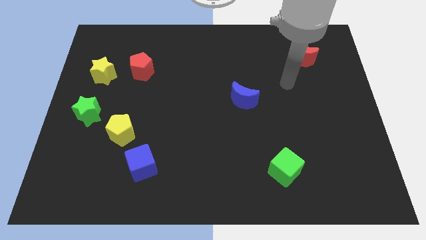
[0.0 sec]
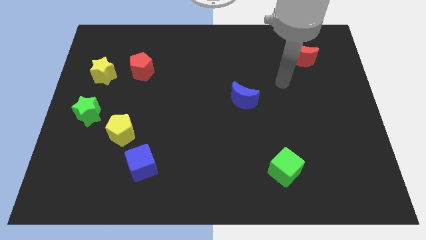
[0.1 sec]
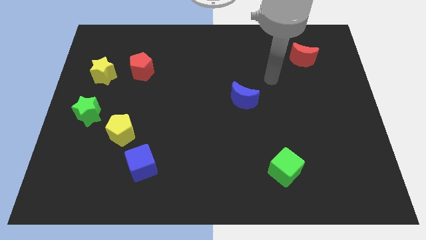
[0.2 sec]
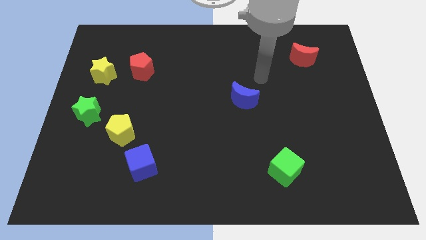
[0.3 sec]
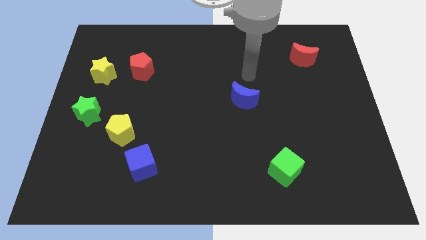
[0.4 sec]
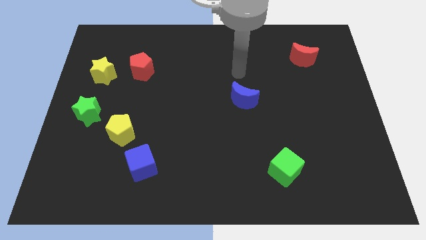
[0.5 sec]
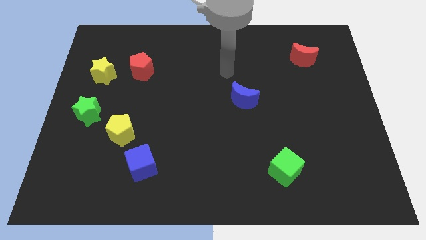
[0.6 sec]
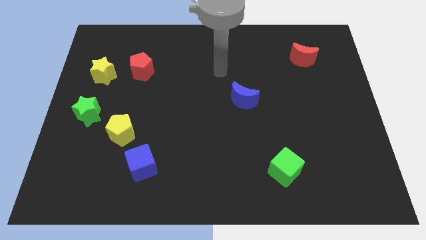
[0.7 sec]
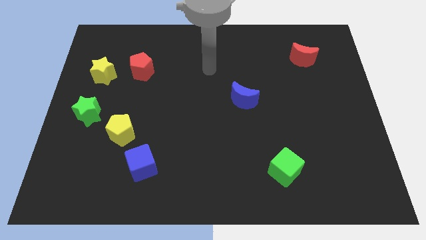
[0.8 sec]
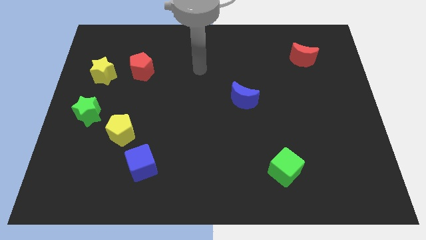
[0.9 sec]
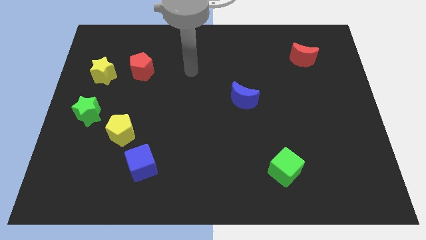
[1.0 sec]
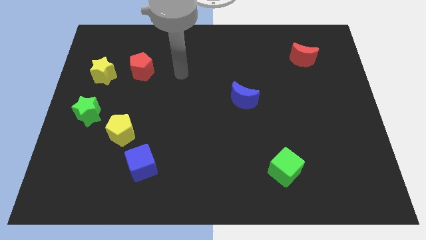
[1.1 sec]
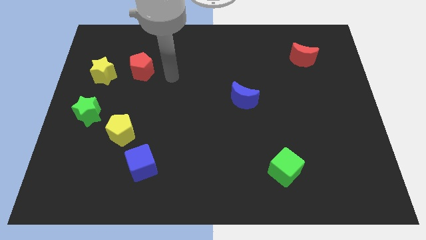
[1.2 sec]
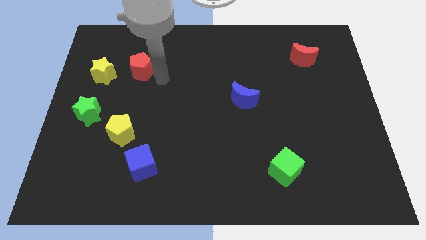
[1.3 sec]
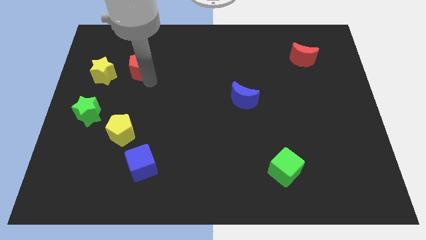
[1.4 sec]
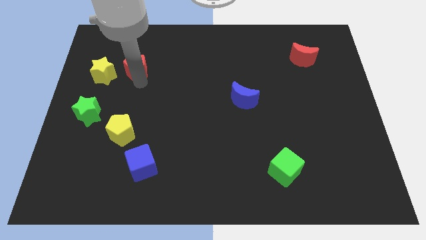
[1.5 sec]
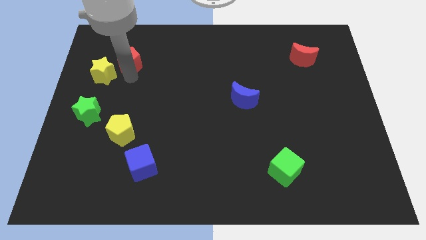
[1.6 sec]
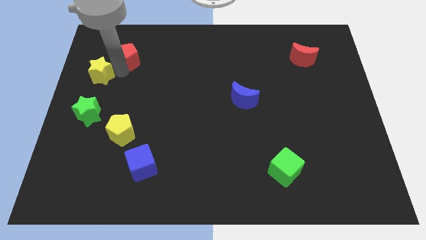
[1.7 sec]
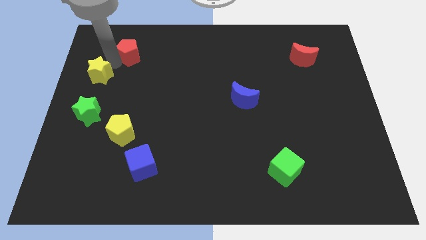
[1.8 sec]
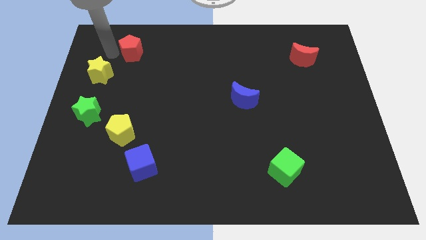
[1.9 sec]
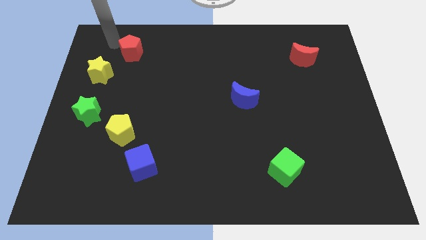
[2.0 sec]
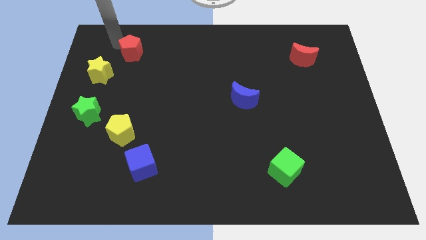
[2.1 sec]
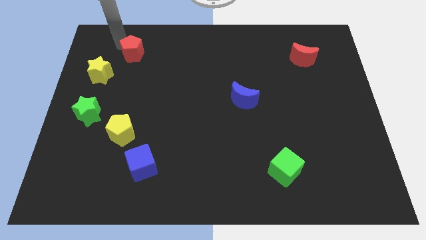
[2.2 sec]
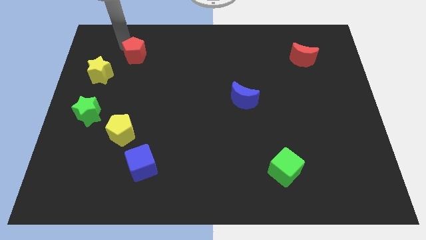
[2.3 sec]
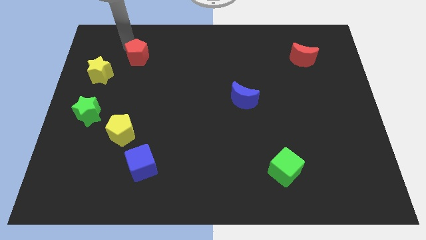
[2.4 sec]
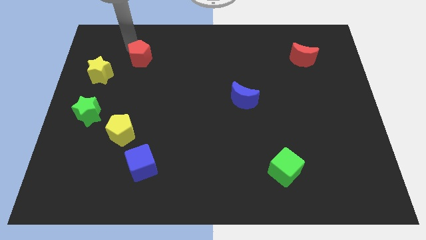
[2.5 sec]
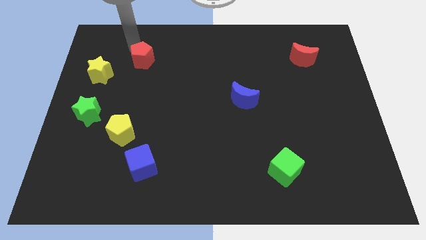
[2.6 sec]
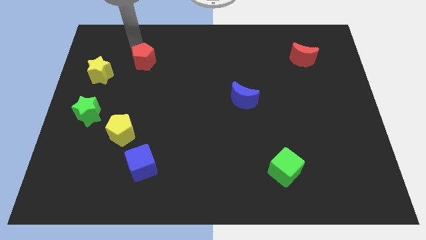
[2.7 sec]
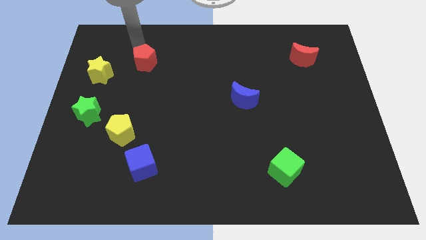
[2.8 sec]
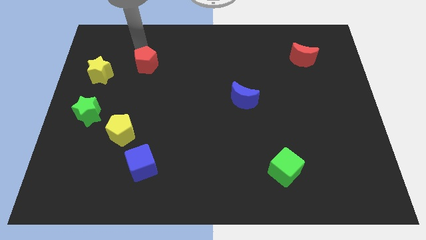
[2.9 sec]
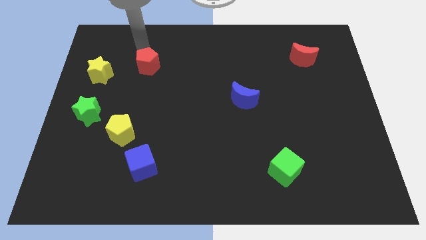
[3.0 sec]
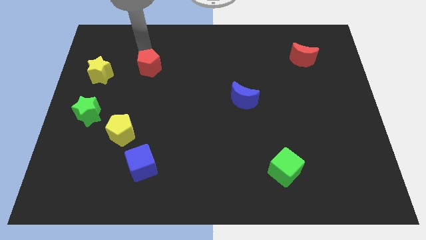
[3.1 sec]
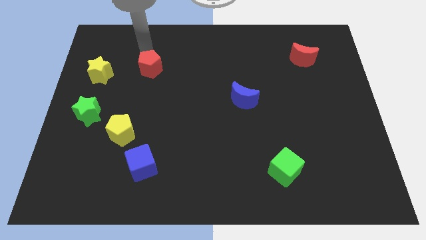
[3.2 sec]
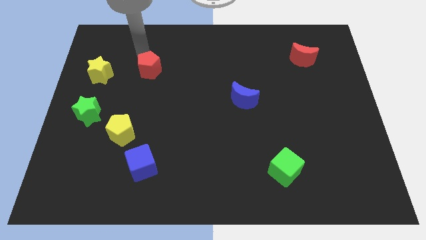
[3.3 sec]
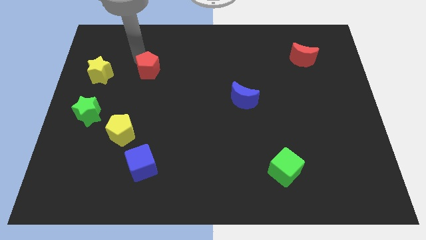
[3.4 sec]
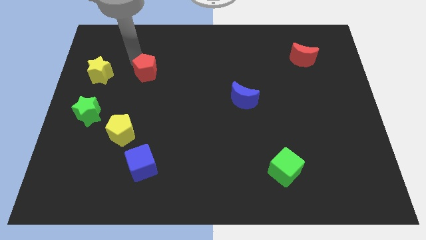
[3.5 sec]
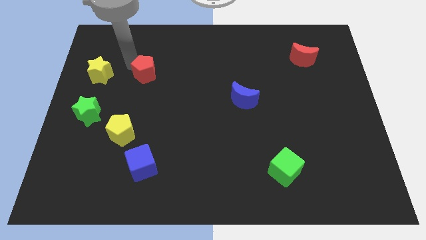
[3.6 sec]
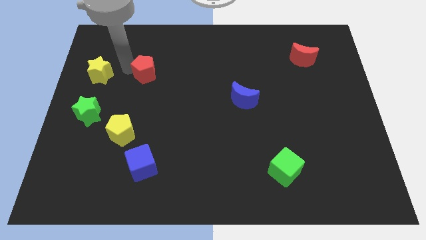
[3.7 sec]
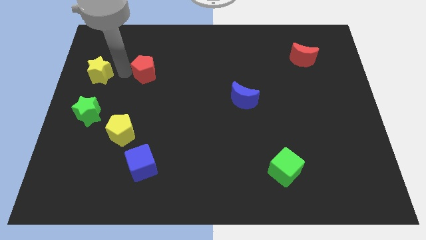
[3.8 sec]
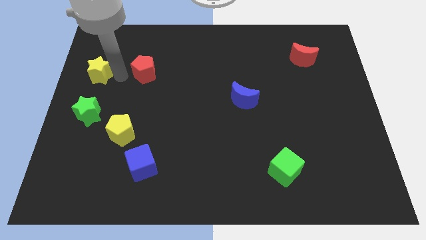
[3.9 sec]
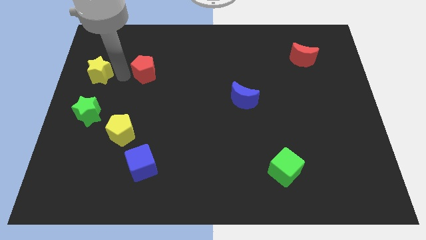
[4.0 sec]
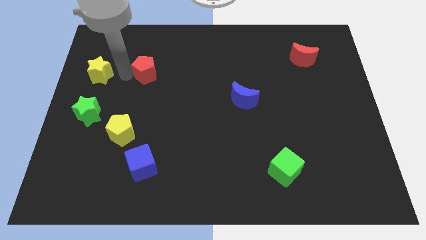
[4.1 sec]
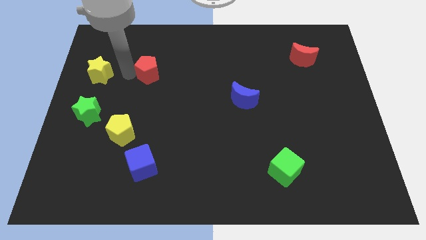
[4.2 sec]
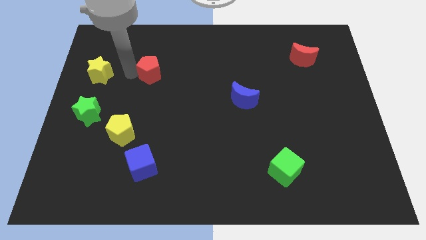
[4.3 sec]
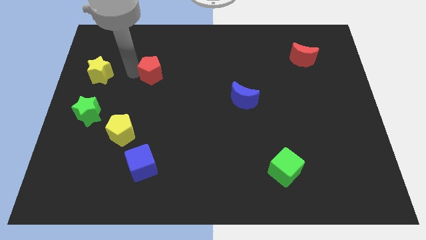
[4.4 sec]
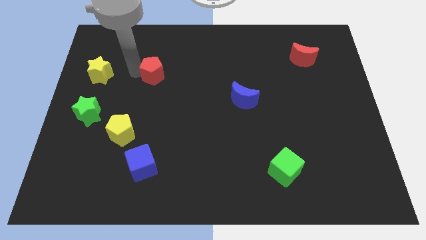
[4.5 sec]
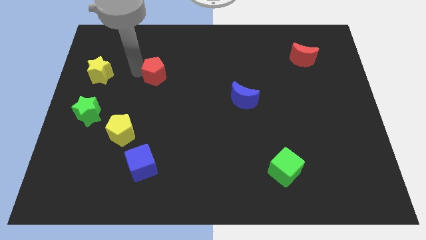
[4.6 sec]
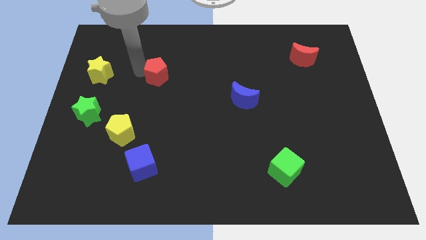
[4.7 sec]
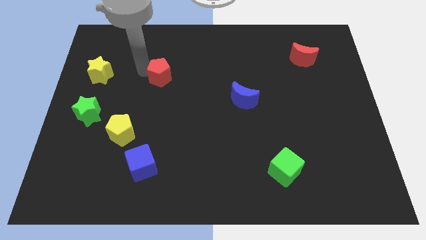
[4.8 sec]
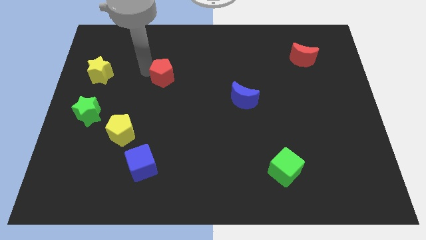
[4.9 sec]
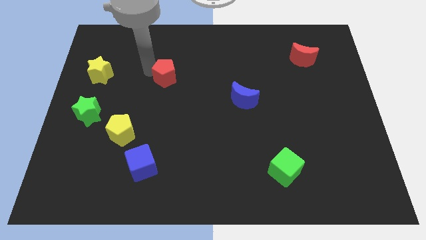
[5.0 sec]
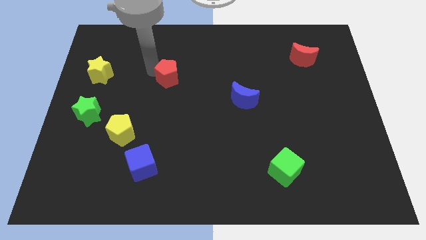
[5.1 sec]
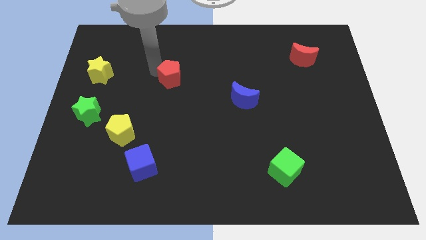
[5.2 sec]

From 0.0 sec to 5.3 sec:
move the red pentagon to the right slightly

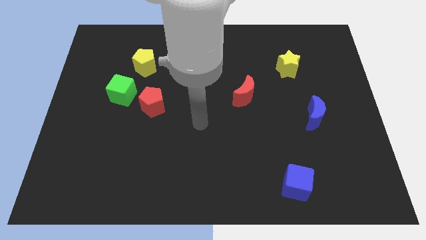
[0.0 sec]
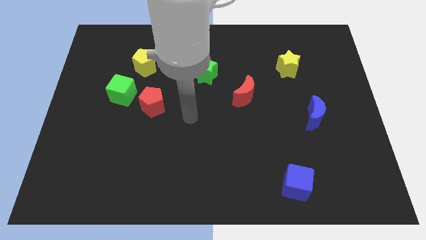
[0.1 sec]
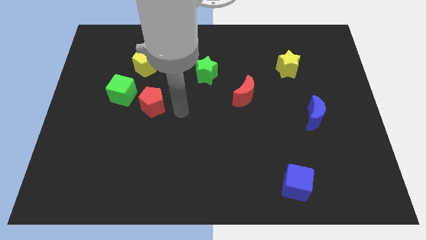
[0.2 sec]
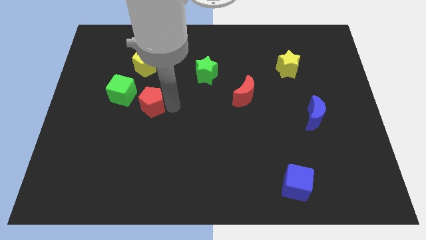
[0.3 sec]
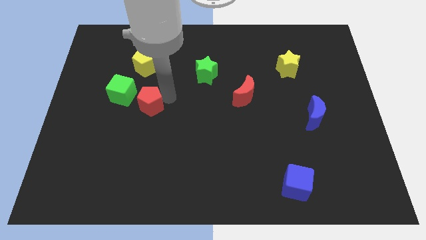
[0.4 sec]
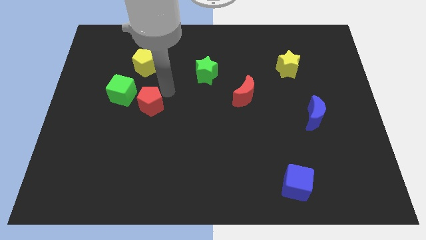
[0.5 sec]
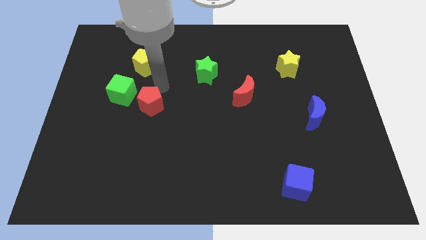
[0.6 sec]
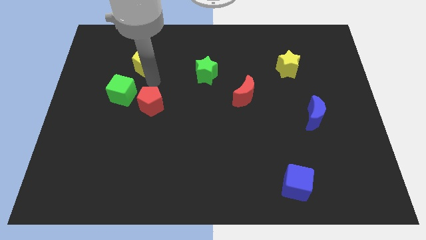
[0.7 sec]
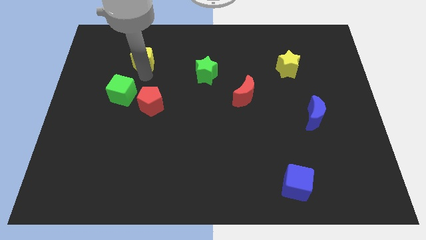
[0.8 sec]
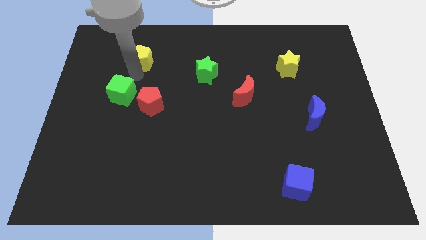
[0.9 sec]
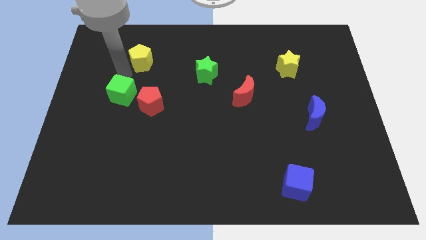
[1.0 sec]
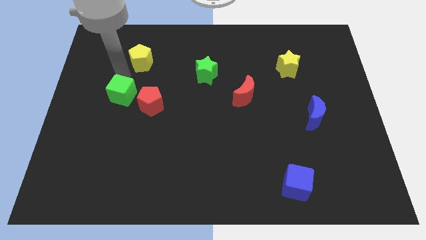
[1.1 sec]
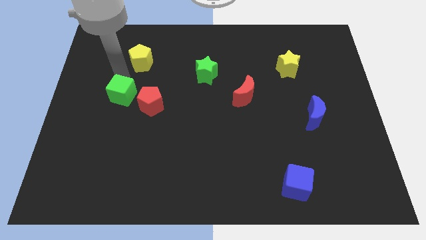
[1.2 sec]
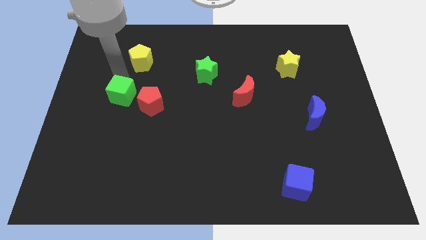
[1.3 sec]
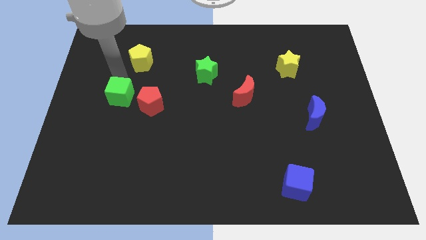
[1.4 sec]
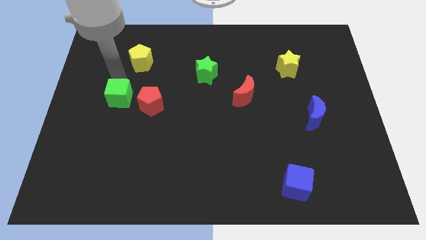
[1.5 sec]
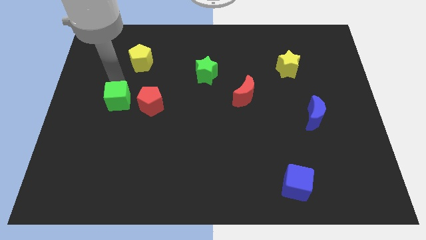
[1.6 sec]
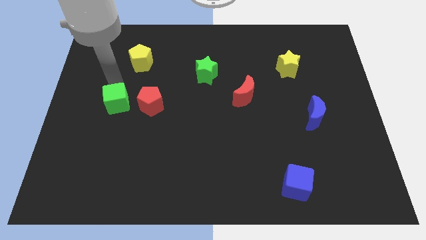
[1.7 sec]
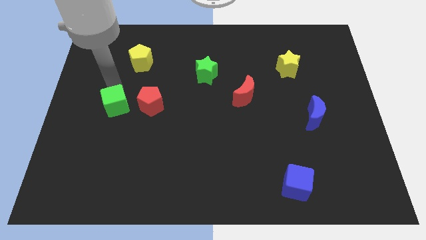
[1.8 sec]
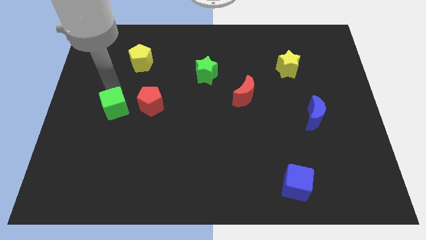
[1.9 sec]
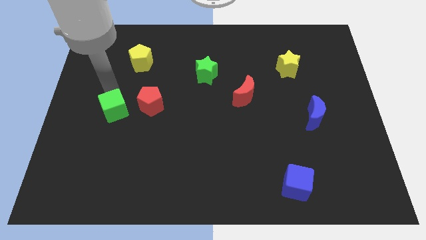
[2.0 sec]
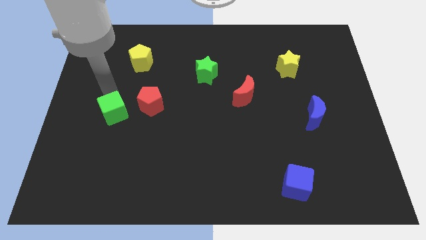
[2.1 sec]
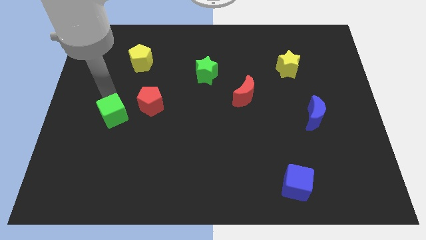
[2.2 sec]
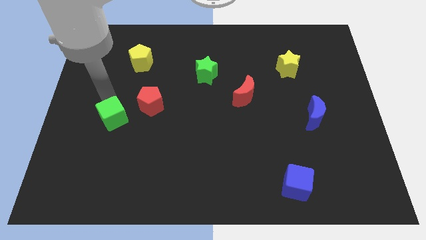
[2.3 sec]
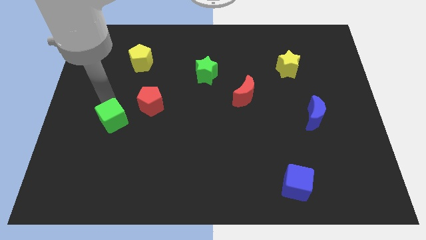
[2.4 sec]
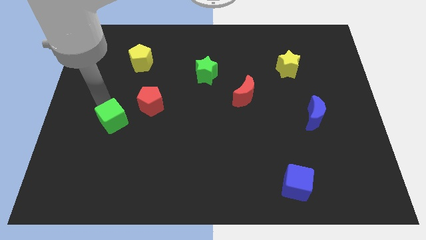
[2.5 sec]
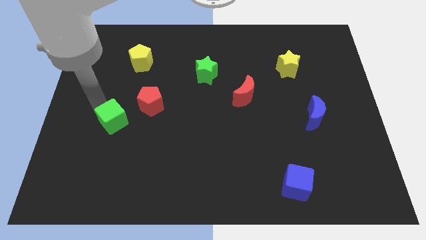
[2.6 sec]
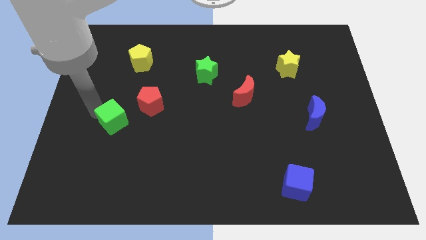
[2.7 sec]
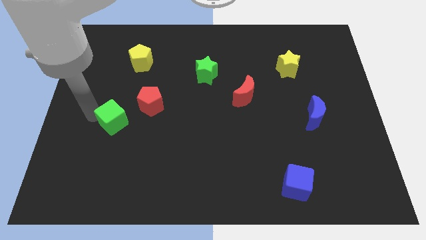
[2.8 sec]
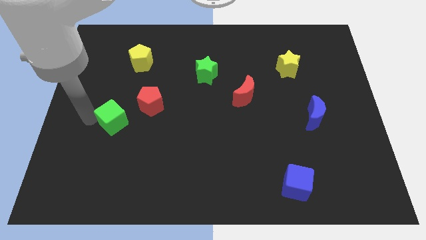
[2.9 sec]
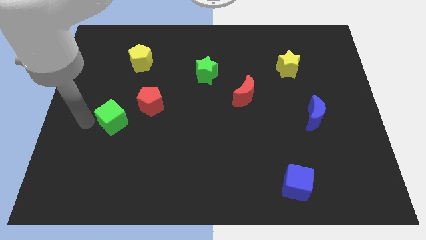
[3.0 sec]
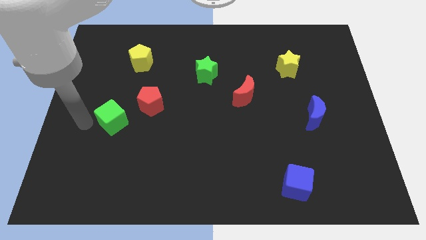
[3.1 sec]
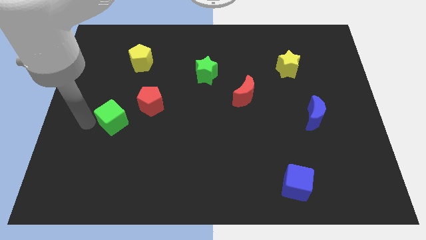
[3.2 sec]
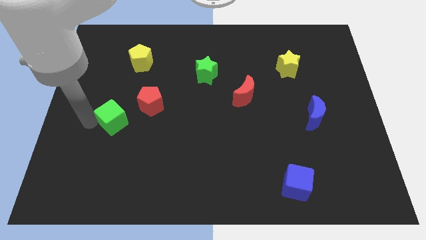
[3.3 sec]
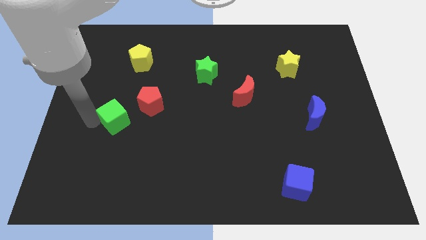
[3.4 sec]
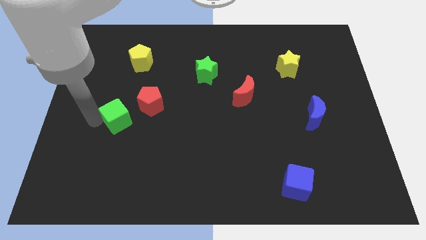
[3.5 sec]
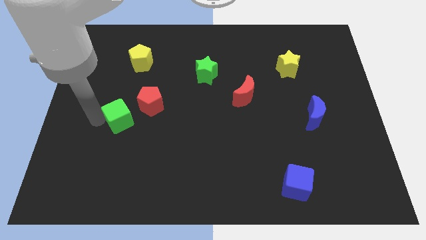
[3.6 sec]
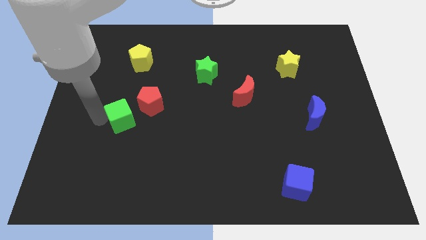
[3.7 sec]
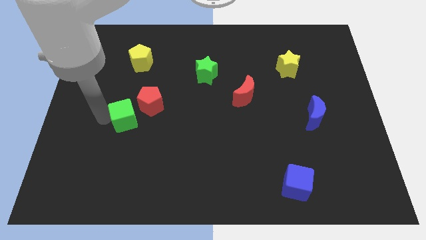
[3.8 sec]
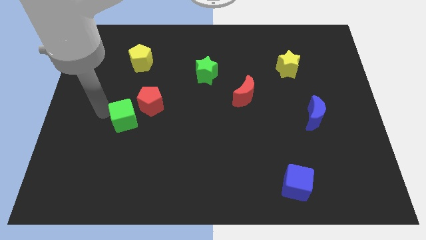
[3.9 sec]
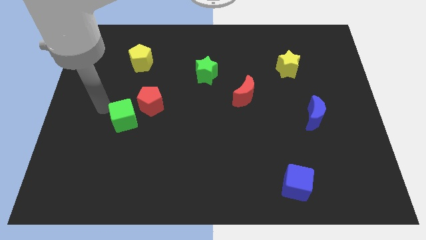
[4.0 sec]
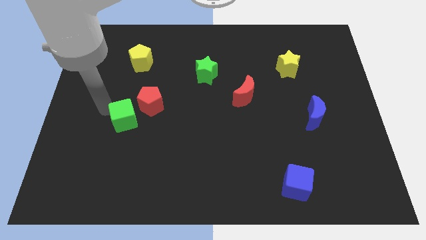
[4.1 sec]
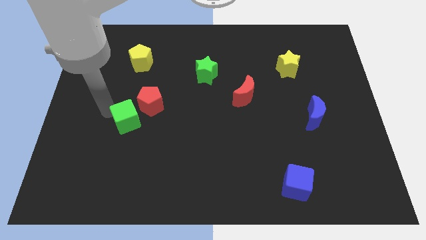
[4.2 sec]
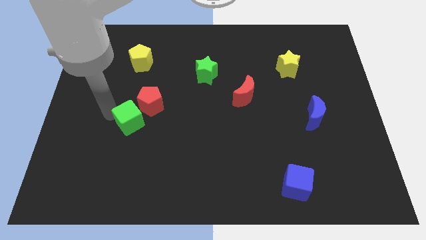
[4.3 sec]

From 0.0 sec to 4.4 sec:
push the green cube downwards and right diagonally a bit
